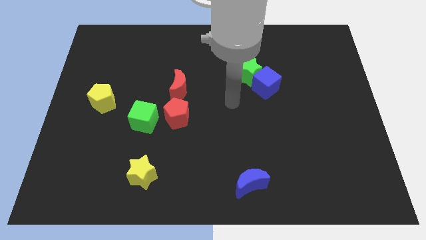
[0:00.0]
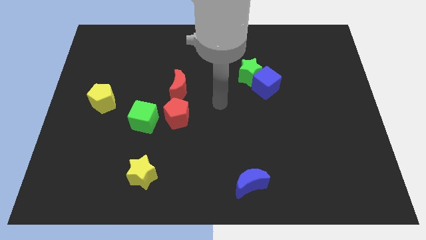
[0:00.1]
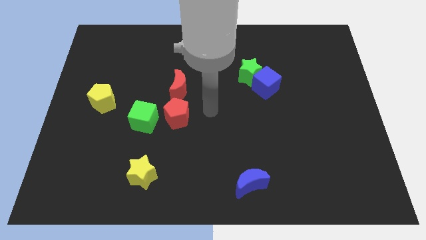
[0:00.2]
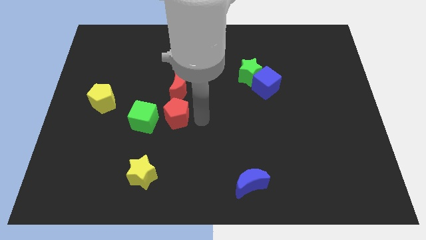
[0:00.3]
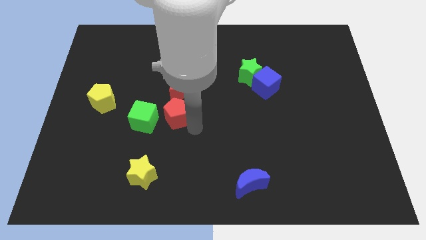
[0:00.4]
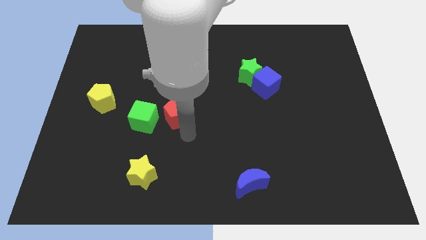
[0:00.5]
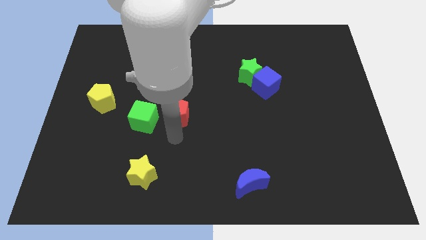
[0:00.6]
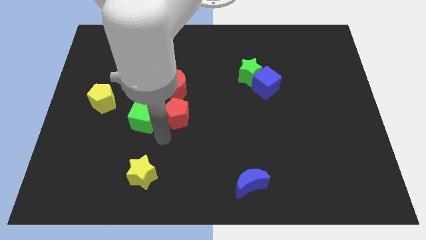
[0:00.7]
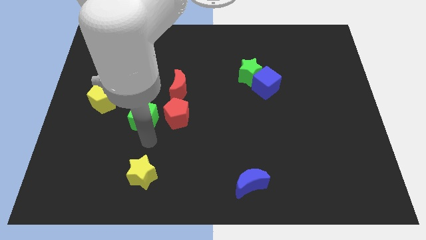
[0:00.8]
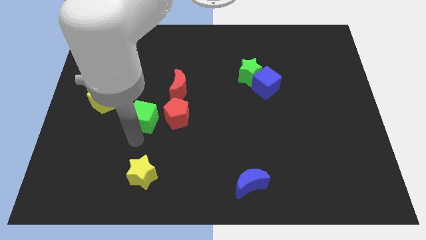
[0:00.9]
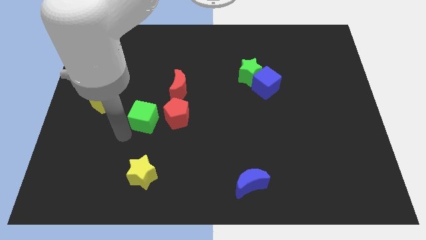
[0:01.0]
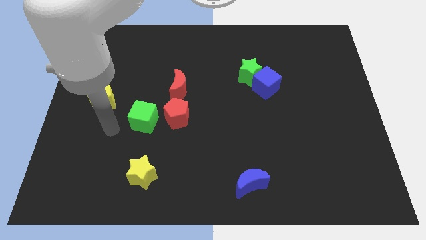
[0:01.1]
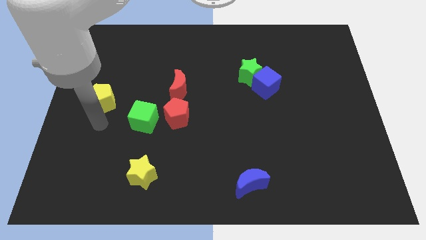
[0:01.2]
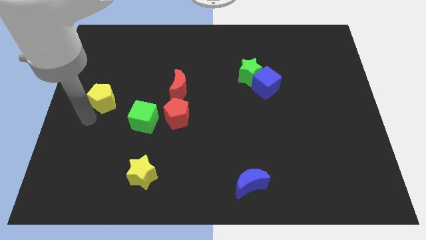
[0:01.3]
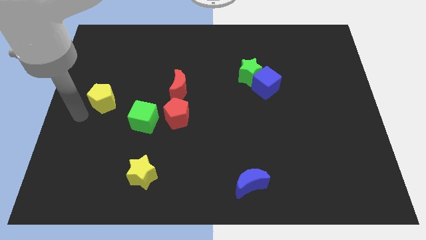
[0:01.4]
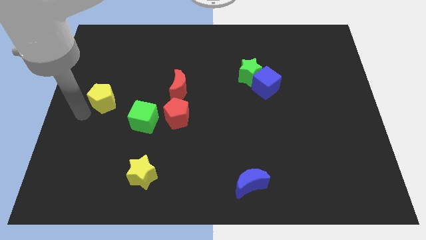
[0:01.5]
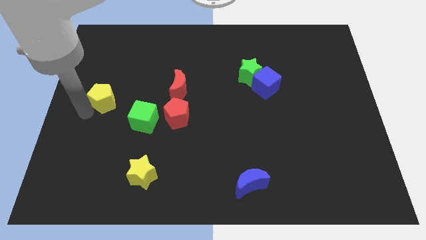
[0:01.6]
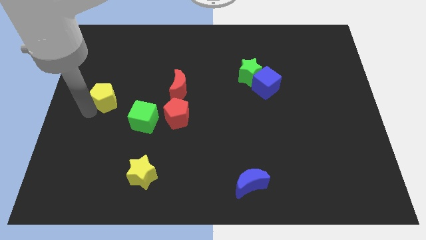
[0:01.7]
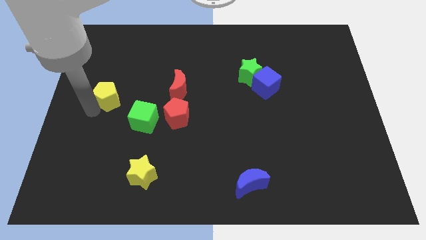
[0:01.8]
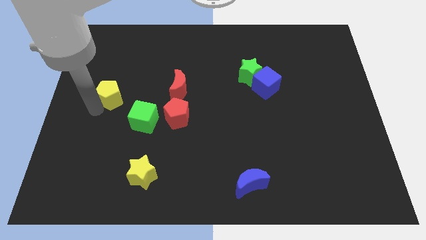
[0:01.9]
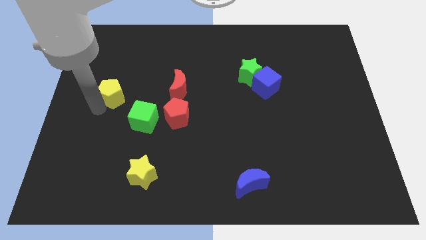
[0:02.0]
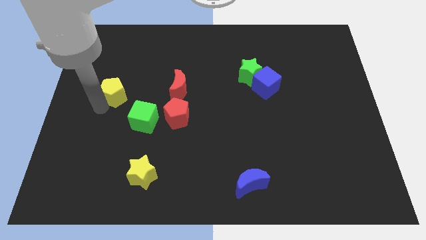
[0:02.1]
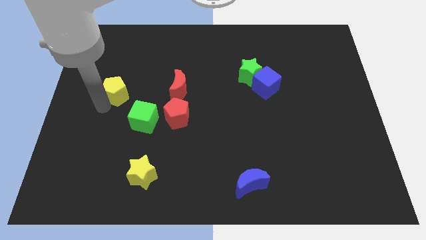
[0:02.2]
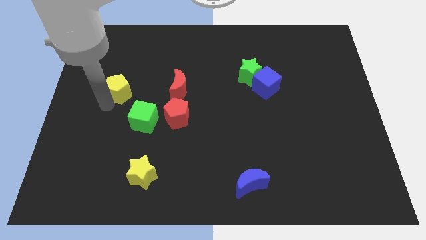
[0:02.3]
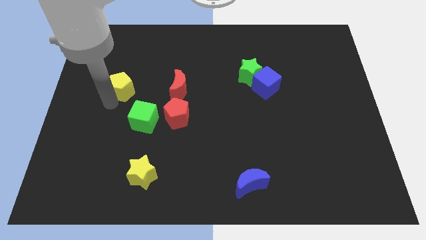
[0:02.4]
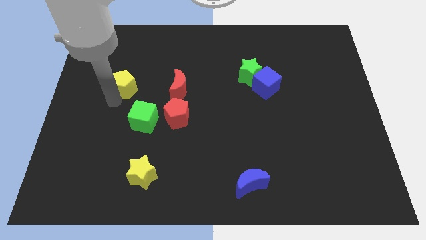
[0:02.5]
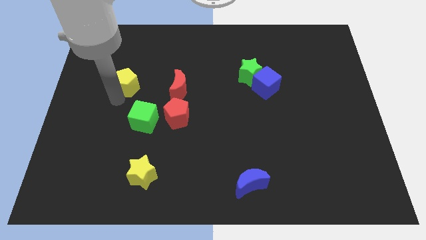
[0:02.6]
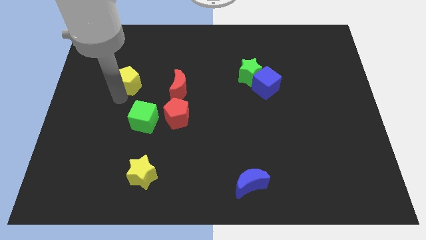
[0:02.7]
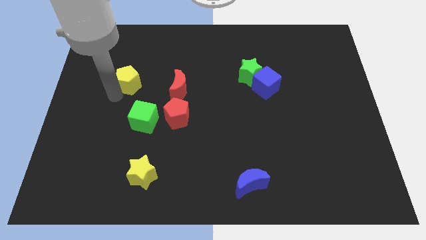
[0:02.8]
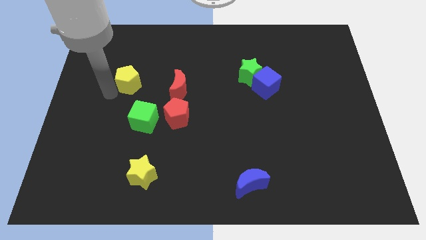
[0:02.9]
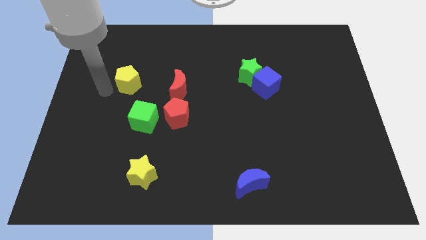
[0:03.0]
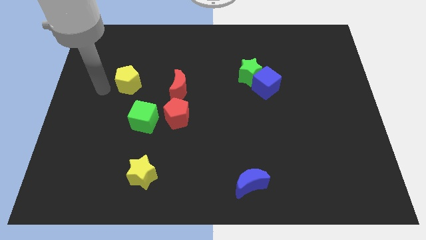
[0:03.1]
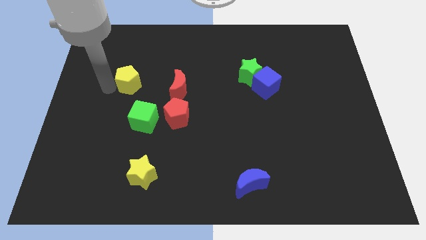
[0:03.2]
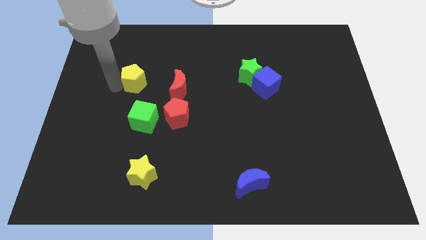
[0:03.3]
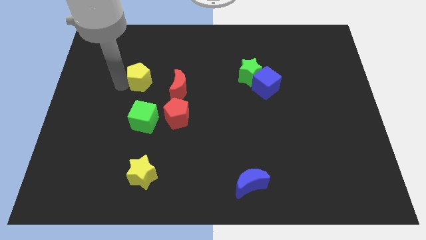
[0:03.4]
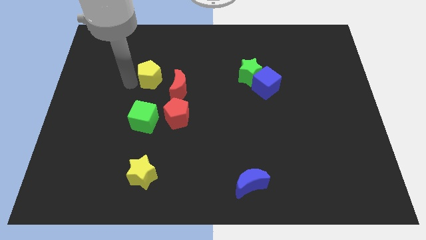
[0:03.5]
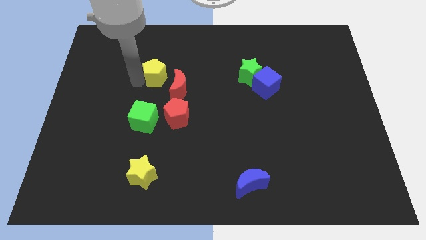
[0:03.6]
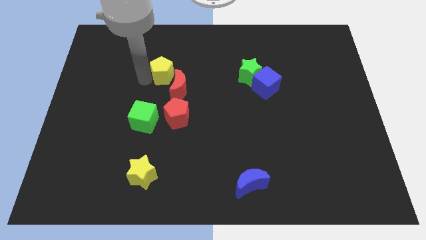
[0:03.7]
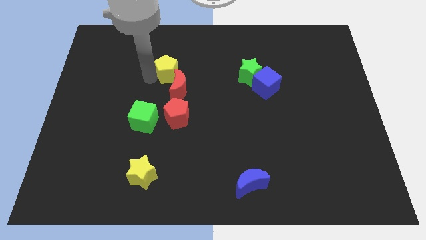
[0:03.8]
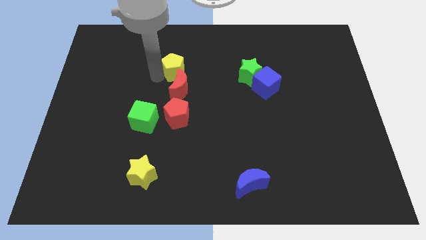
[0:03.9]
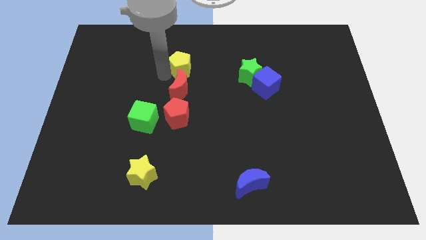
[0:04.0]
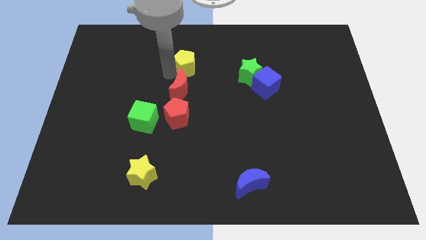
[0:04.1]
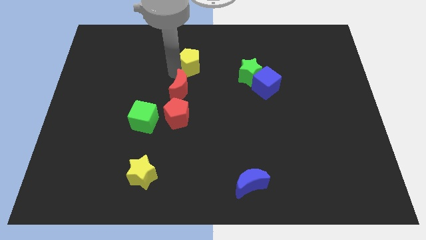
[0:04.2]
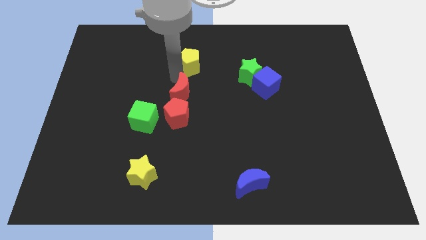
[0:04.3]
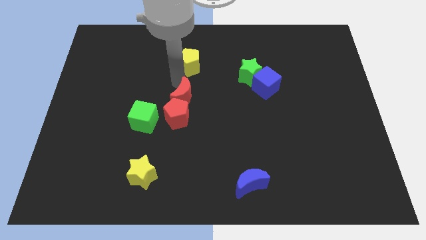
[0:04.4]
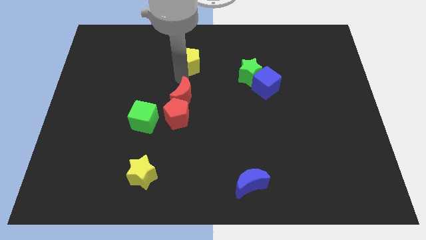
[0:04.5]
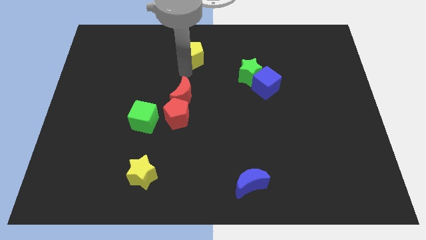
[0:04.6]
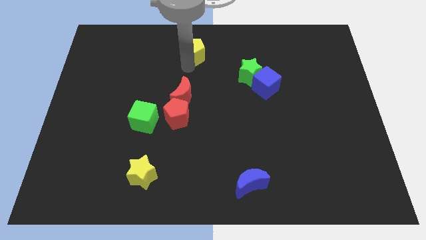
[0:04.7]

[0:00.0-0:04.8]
put the yellow pentagon to the top side

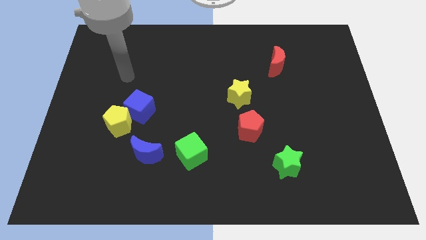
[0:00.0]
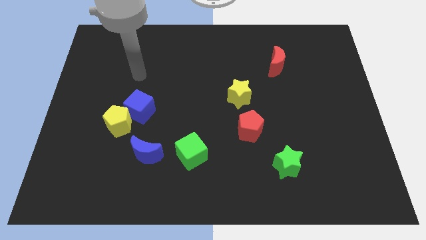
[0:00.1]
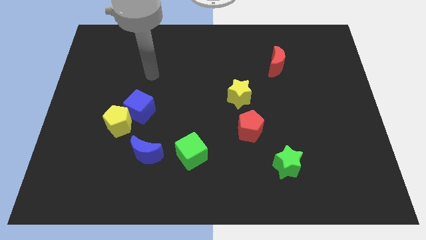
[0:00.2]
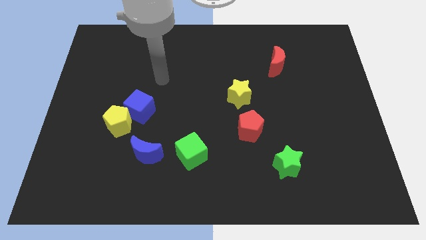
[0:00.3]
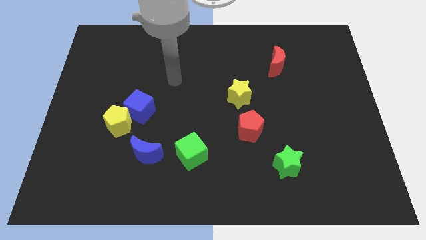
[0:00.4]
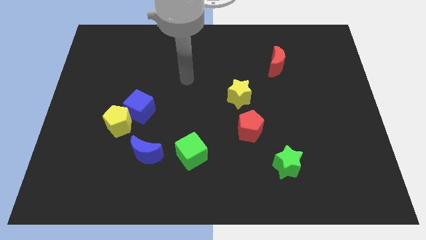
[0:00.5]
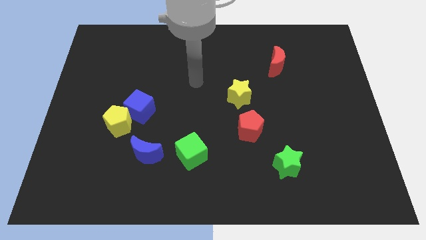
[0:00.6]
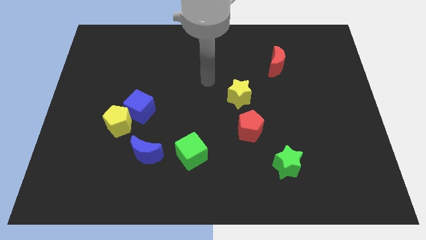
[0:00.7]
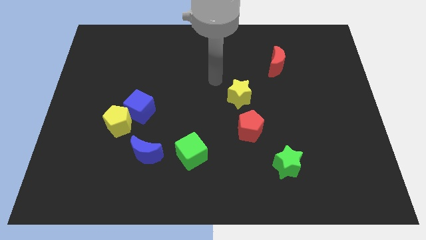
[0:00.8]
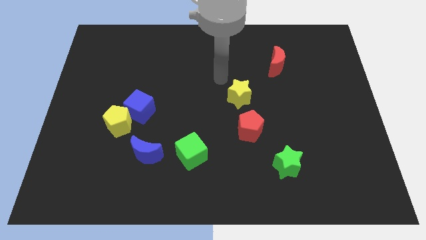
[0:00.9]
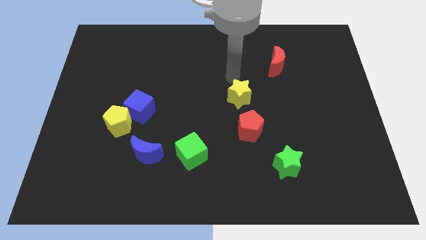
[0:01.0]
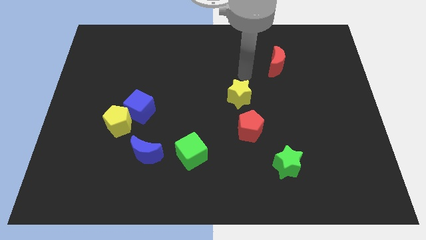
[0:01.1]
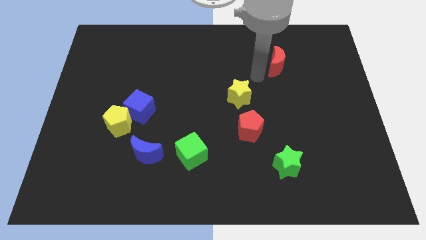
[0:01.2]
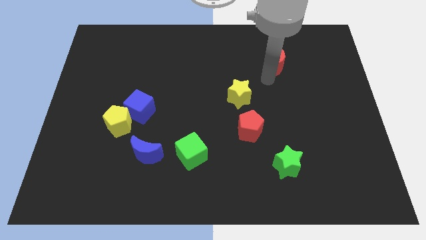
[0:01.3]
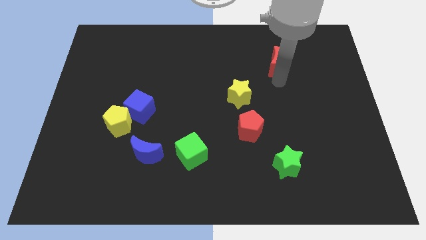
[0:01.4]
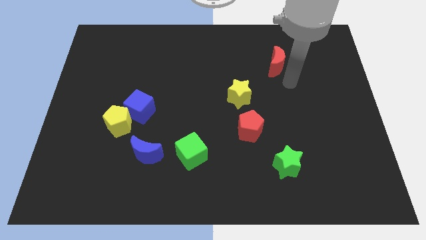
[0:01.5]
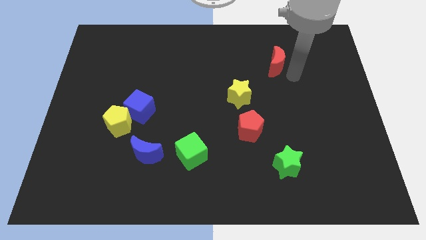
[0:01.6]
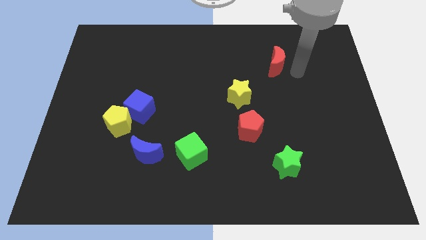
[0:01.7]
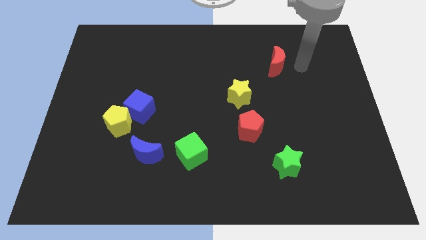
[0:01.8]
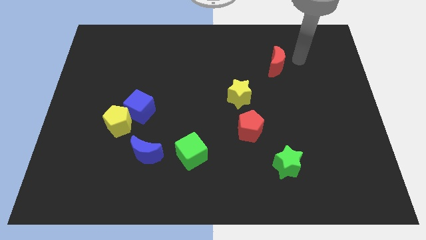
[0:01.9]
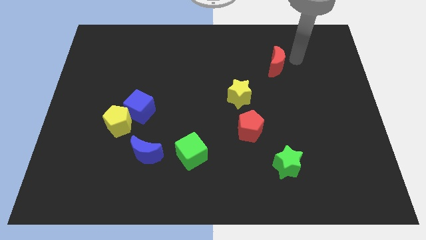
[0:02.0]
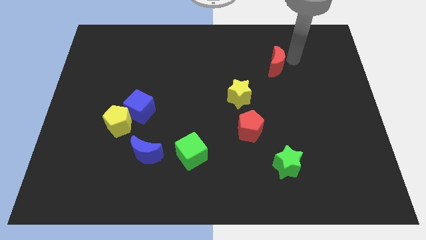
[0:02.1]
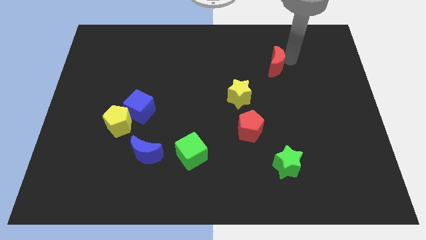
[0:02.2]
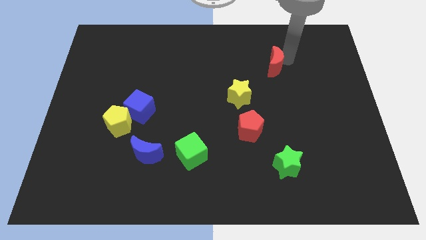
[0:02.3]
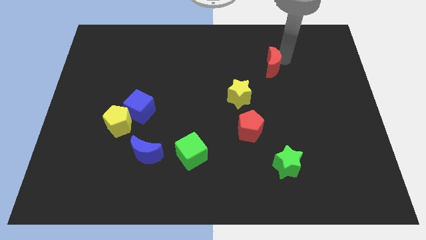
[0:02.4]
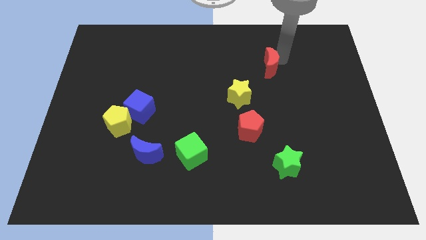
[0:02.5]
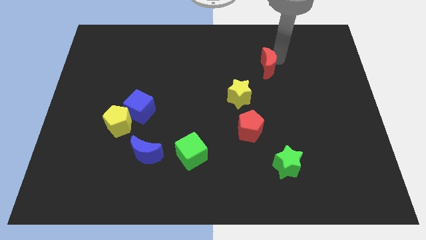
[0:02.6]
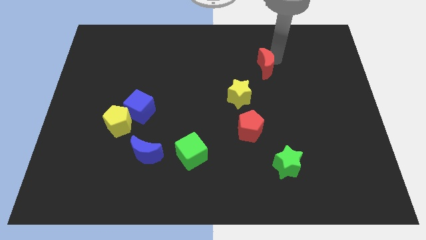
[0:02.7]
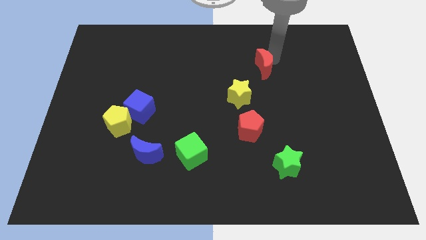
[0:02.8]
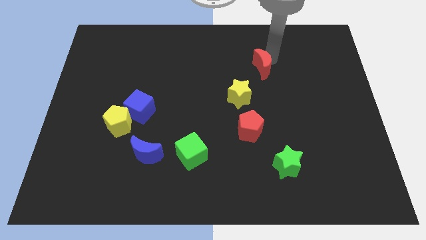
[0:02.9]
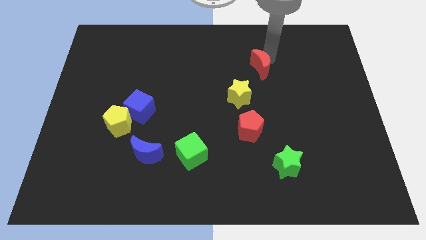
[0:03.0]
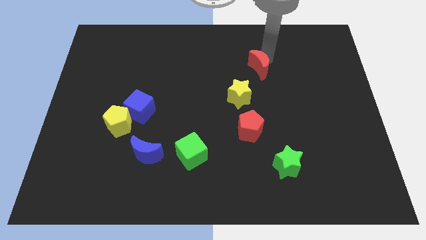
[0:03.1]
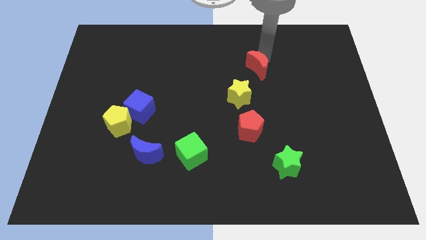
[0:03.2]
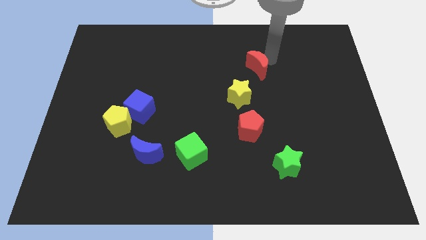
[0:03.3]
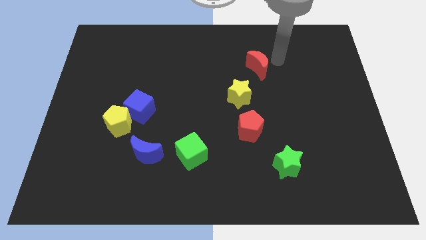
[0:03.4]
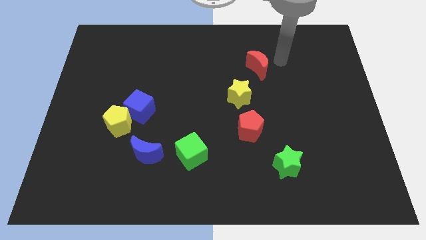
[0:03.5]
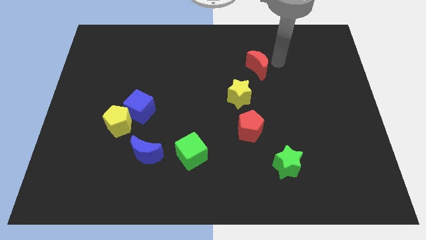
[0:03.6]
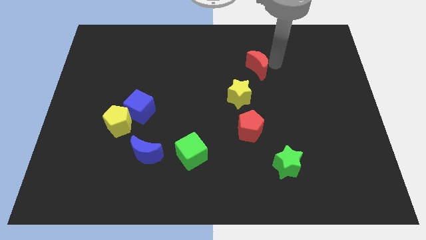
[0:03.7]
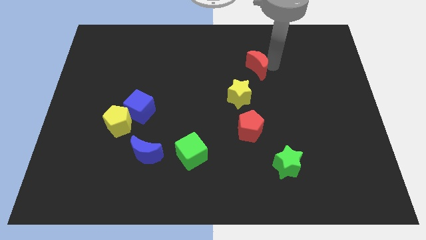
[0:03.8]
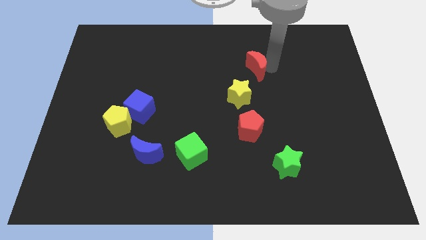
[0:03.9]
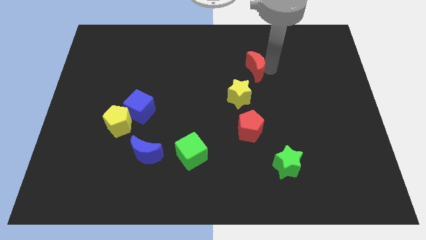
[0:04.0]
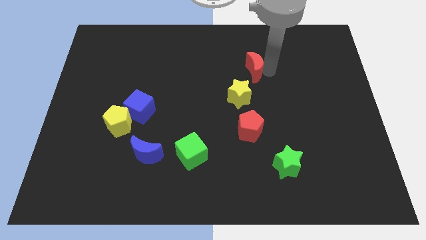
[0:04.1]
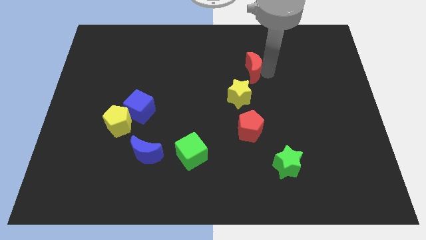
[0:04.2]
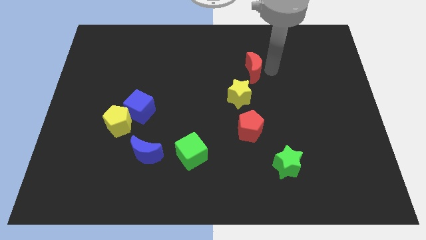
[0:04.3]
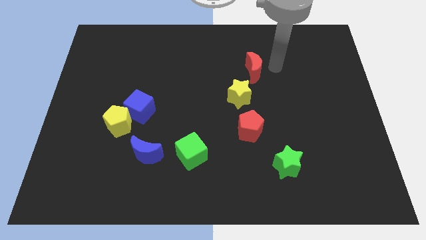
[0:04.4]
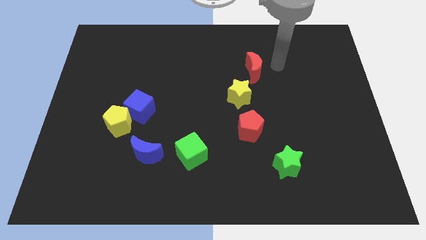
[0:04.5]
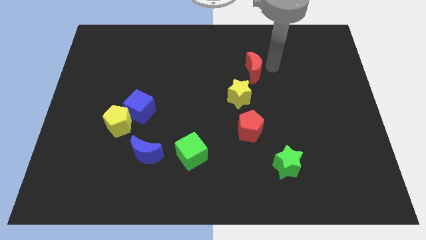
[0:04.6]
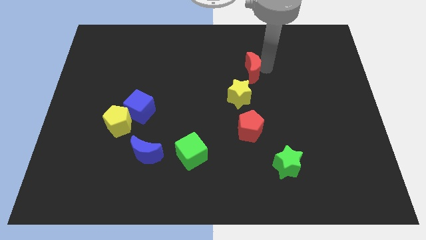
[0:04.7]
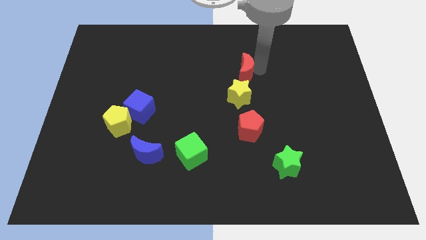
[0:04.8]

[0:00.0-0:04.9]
move the red moon to the middle
